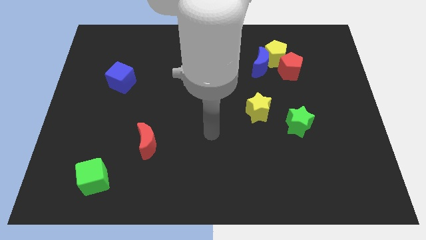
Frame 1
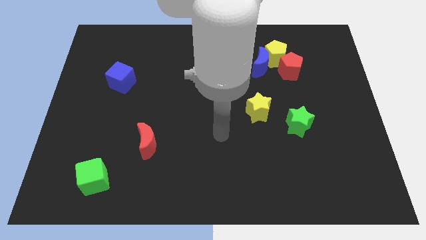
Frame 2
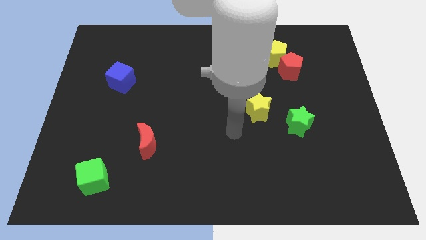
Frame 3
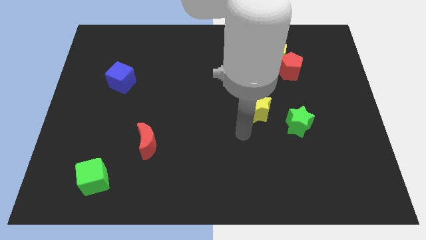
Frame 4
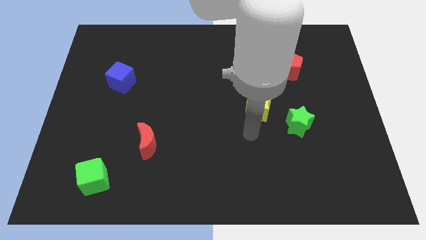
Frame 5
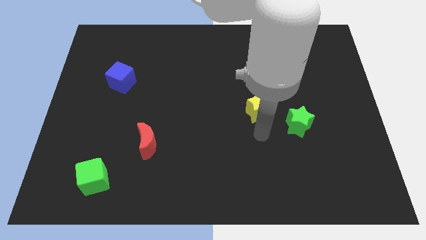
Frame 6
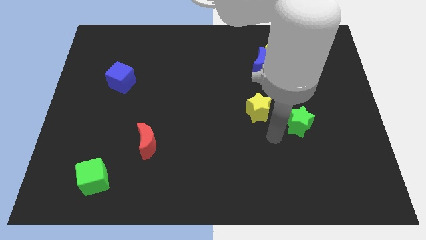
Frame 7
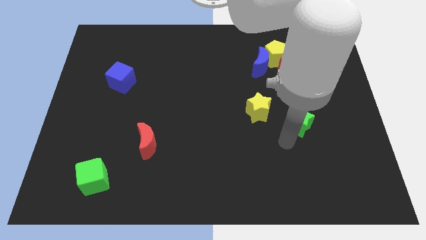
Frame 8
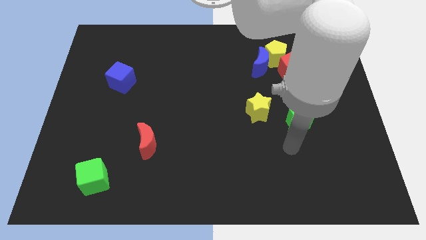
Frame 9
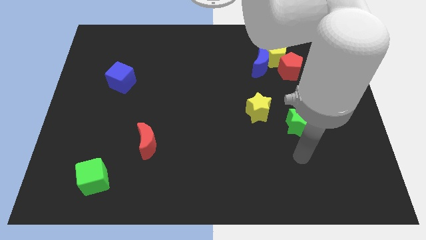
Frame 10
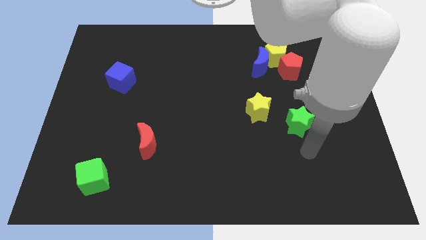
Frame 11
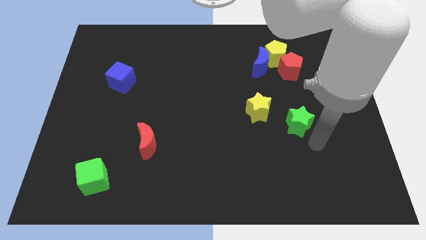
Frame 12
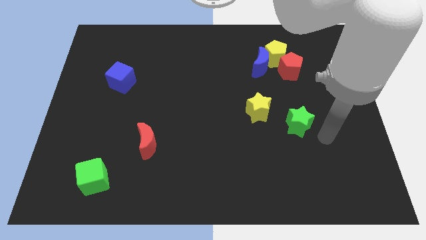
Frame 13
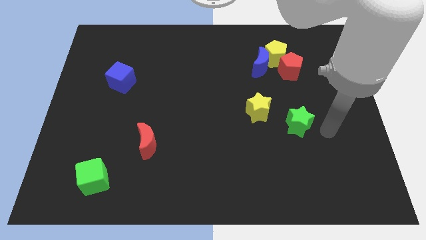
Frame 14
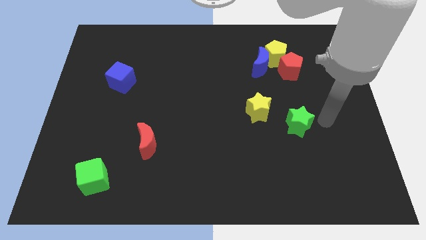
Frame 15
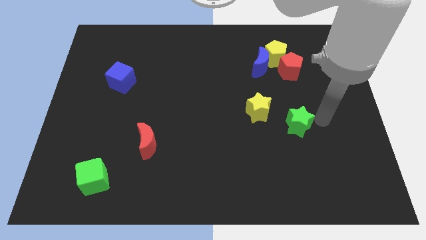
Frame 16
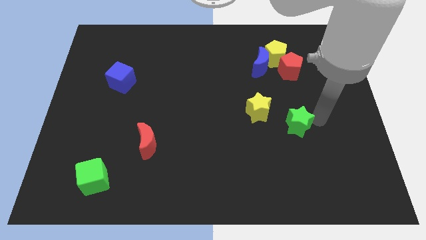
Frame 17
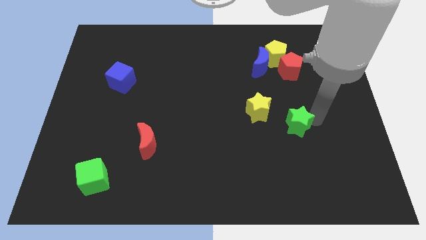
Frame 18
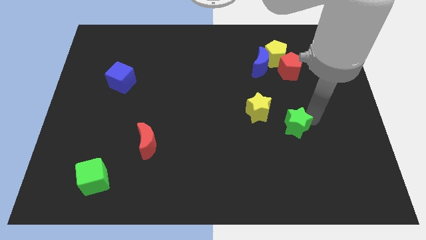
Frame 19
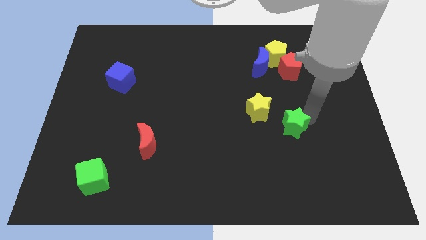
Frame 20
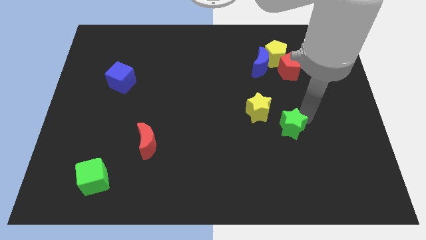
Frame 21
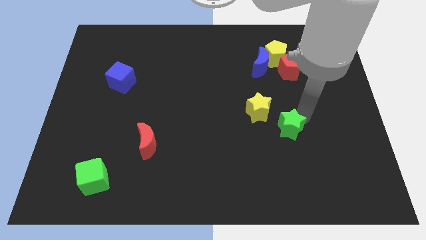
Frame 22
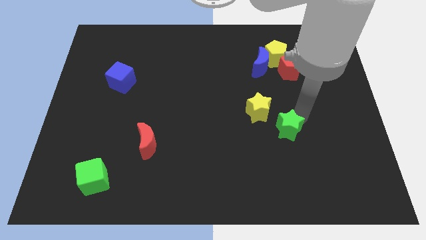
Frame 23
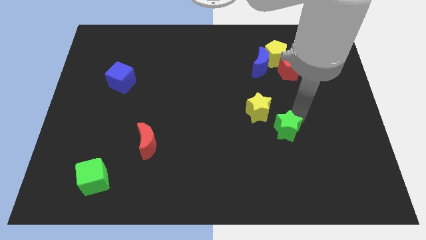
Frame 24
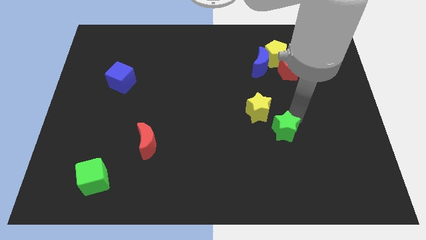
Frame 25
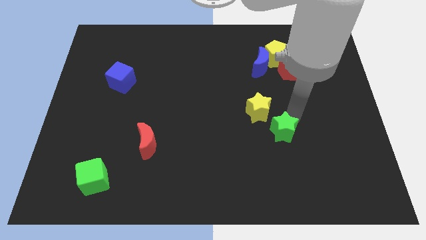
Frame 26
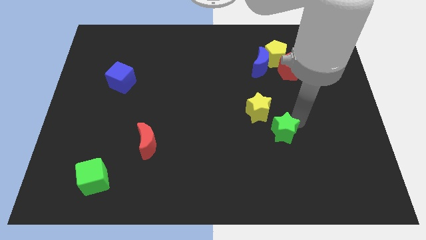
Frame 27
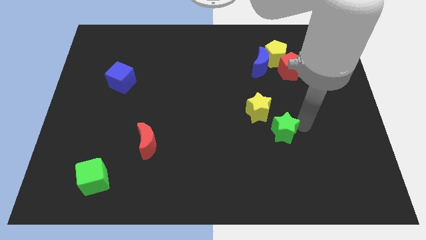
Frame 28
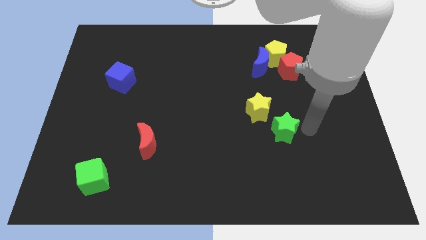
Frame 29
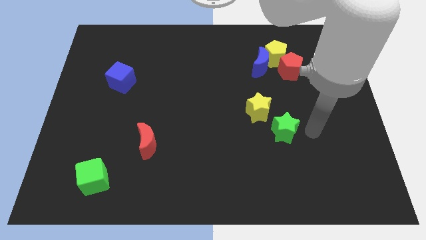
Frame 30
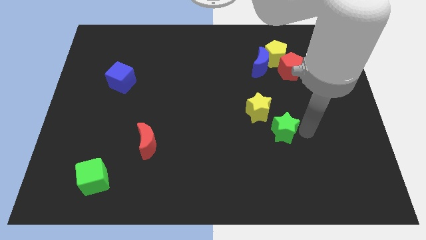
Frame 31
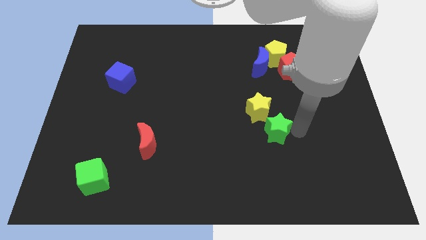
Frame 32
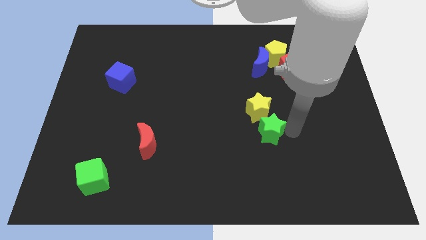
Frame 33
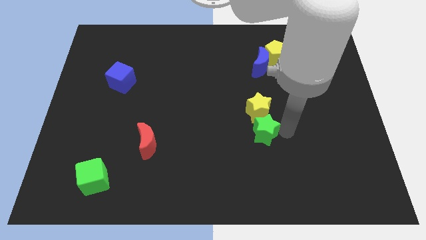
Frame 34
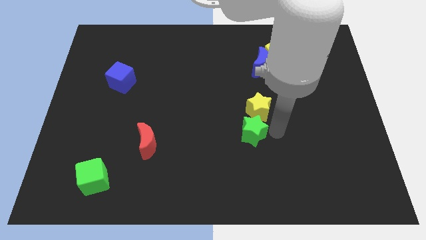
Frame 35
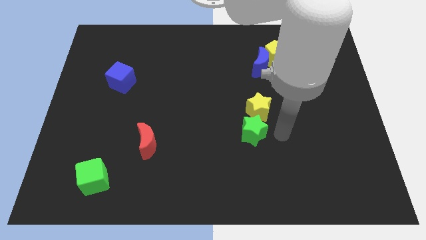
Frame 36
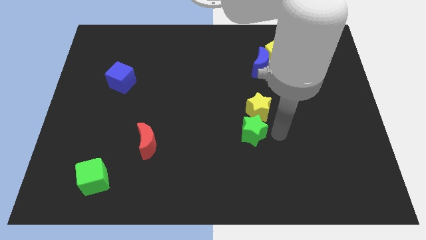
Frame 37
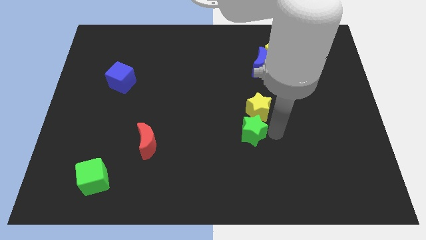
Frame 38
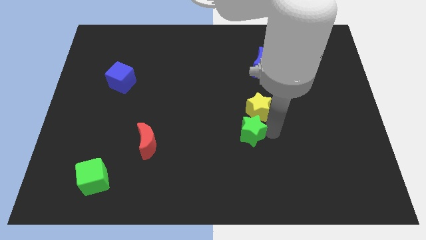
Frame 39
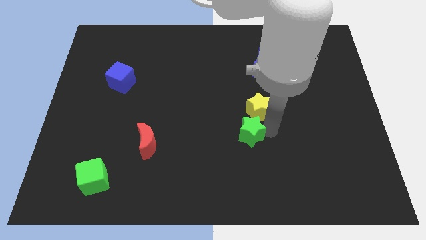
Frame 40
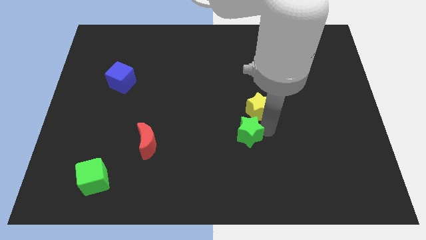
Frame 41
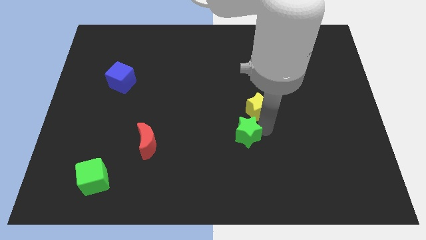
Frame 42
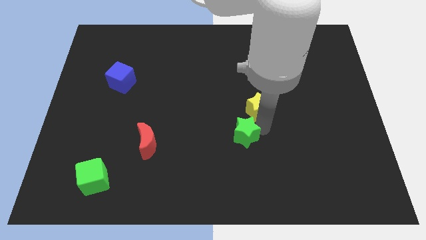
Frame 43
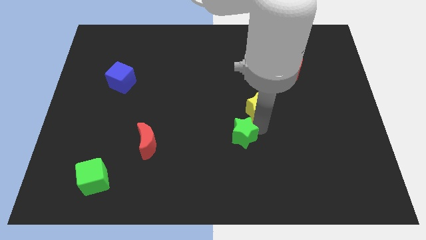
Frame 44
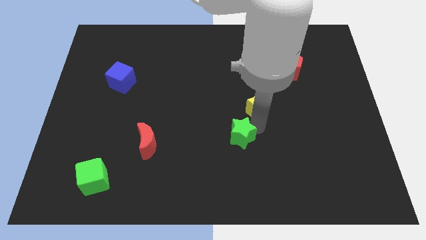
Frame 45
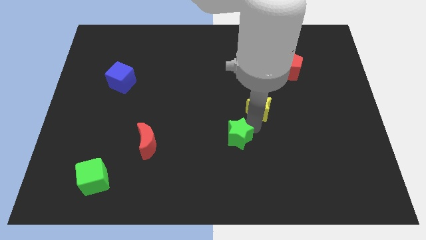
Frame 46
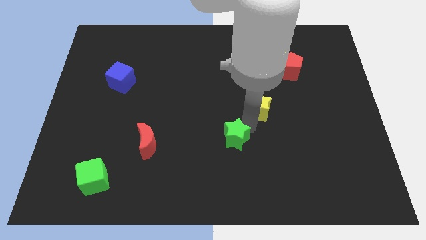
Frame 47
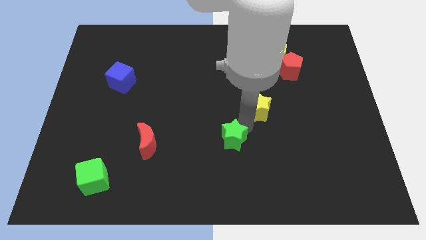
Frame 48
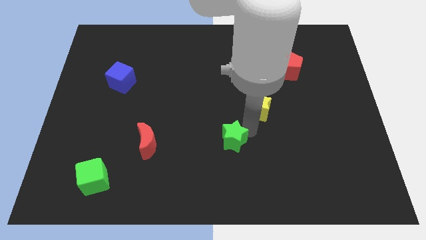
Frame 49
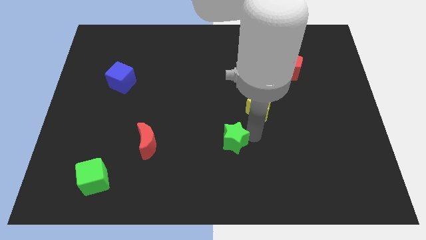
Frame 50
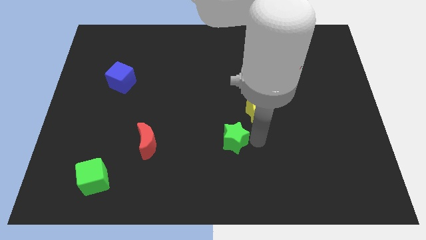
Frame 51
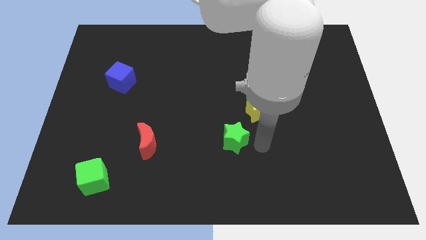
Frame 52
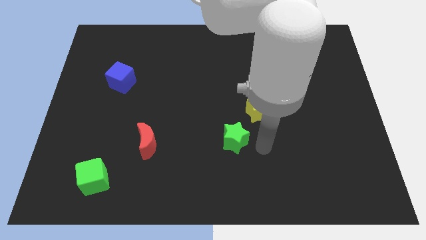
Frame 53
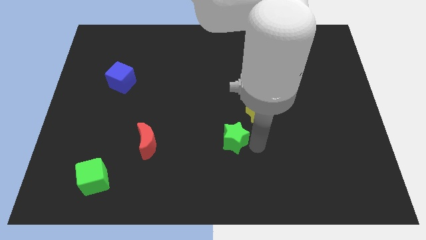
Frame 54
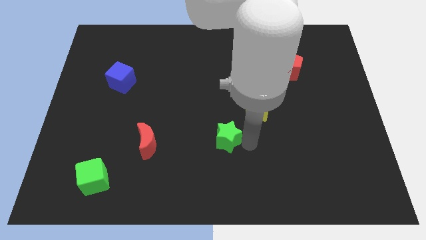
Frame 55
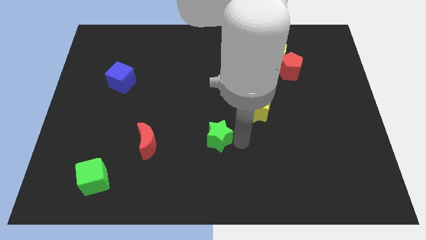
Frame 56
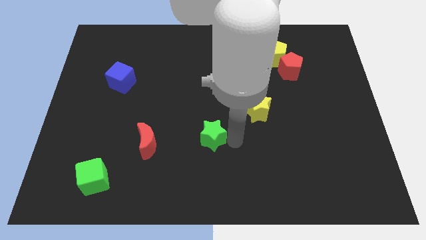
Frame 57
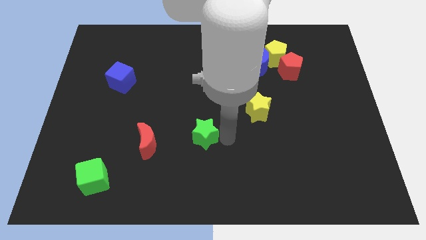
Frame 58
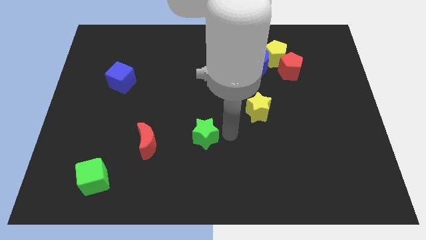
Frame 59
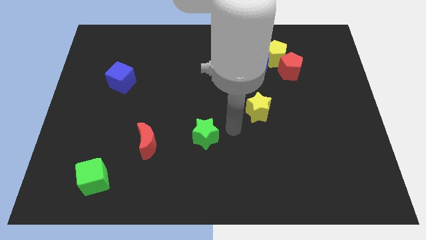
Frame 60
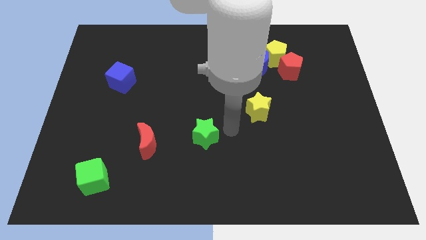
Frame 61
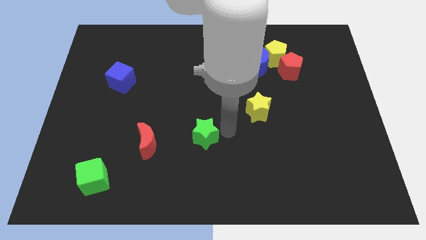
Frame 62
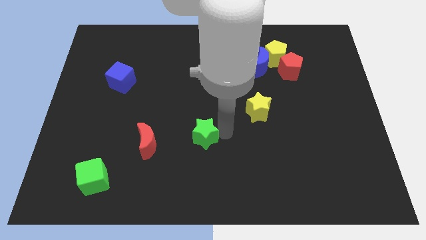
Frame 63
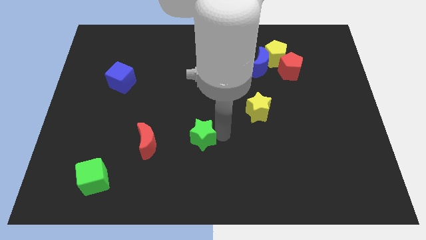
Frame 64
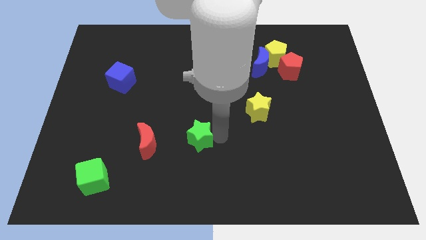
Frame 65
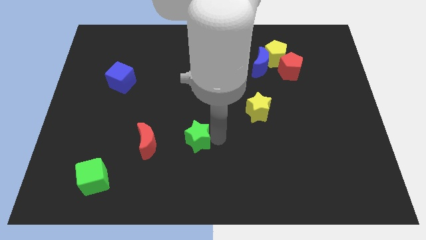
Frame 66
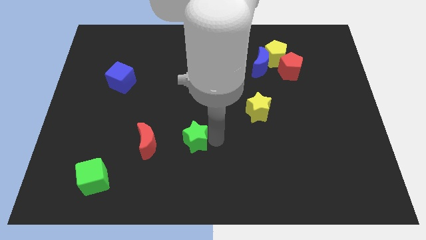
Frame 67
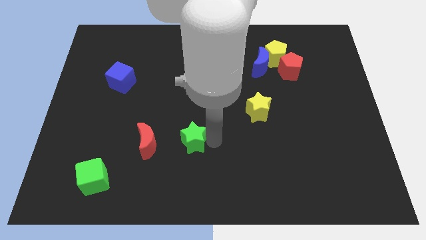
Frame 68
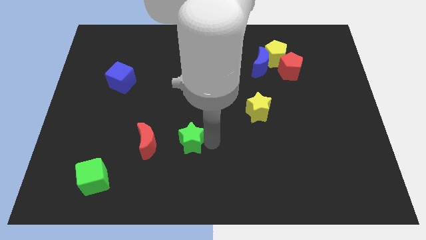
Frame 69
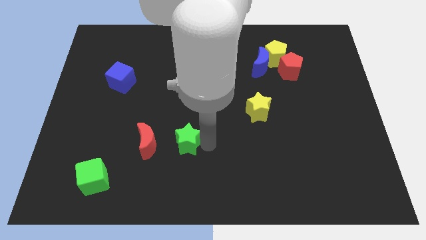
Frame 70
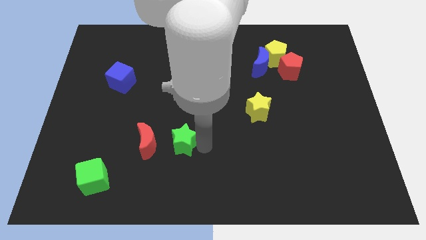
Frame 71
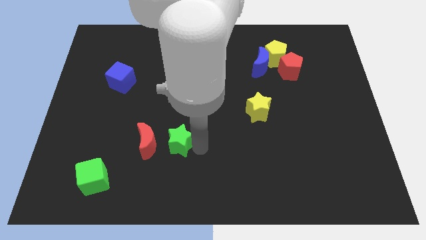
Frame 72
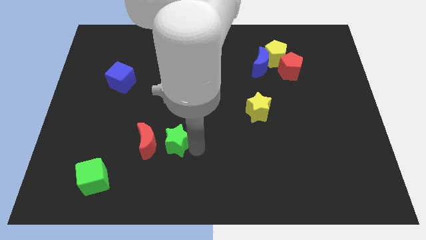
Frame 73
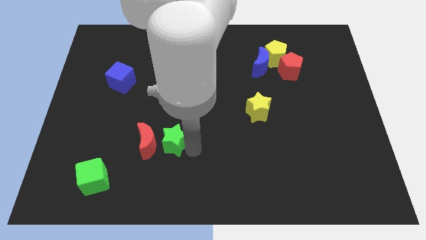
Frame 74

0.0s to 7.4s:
put the green star towards the red moon
